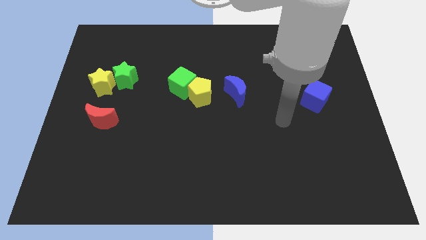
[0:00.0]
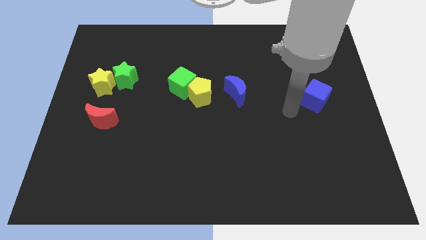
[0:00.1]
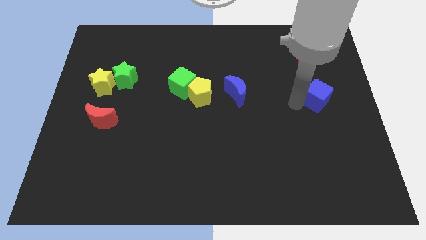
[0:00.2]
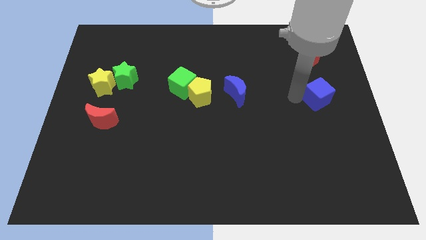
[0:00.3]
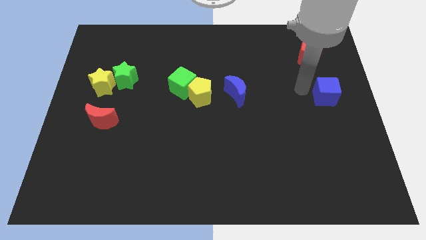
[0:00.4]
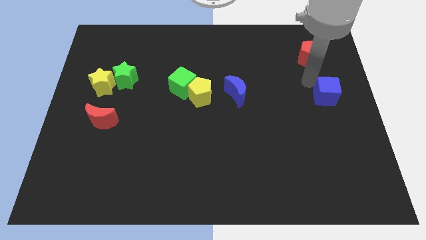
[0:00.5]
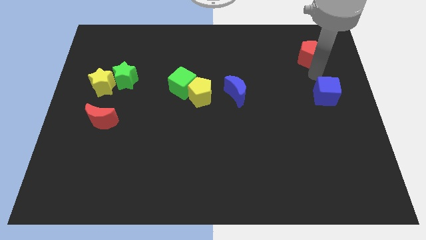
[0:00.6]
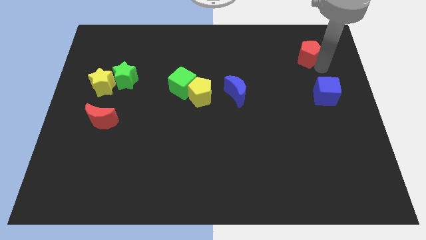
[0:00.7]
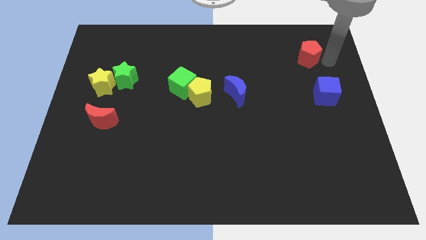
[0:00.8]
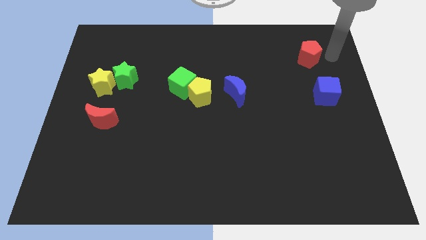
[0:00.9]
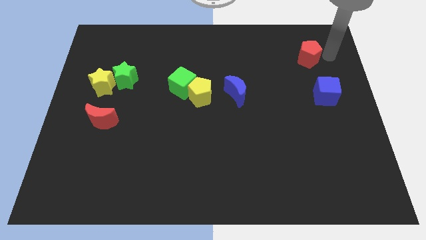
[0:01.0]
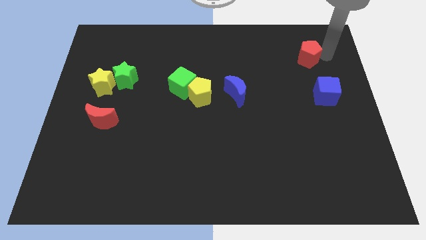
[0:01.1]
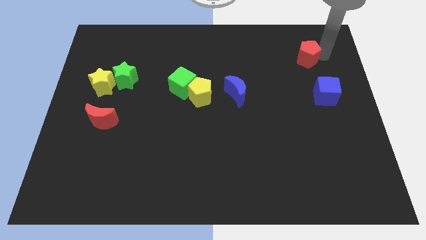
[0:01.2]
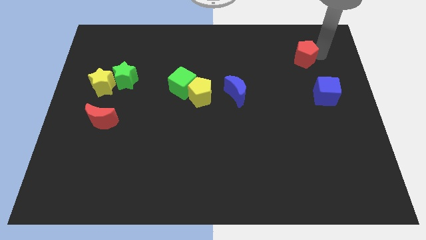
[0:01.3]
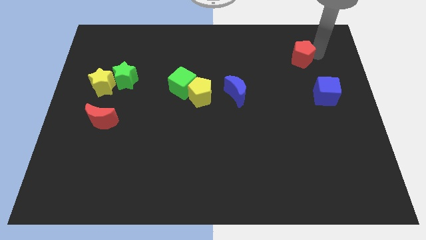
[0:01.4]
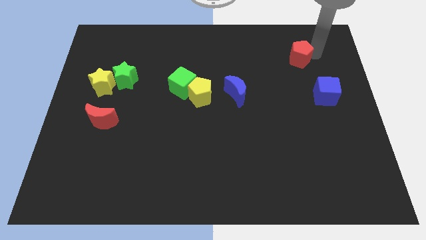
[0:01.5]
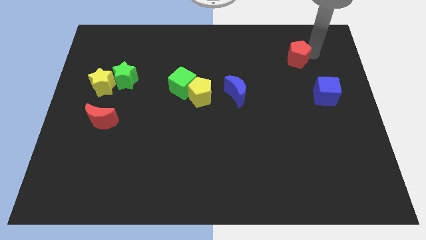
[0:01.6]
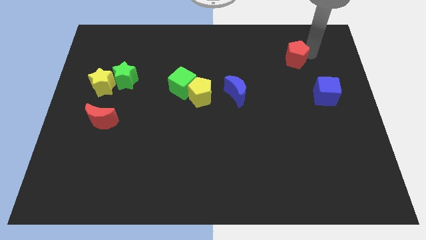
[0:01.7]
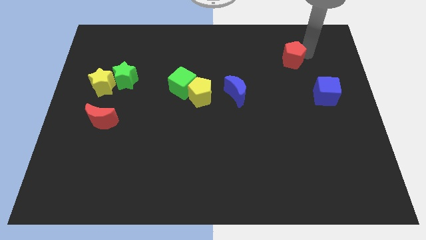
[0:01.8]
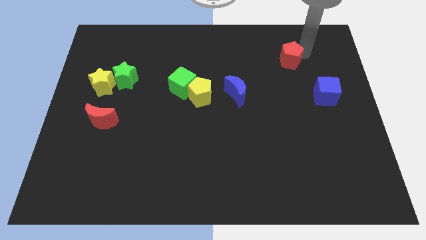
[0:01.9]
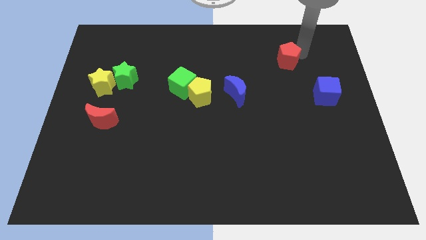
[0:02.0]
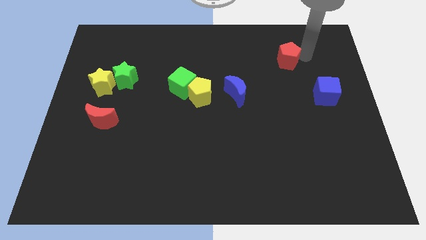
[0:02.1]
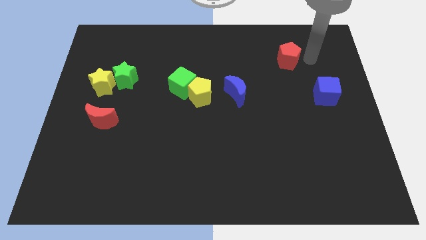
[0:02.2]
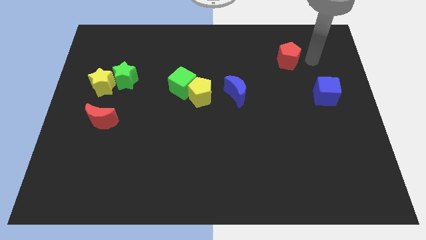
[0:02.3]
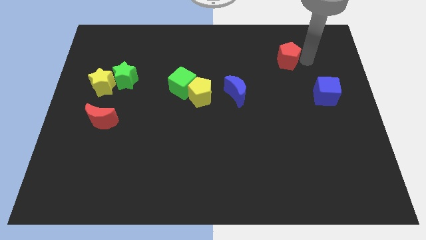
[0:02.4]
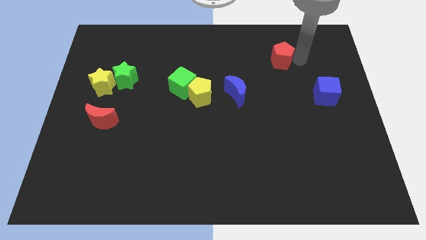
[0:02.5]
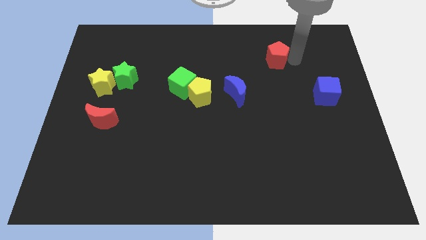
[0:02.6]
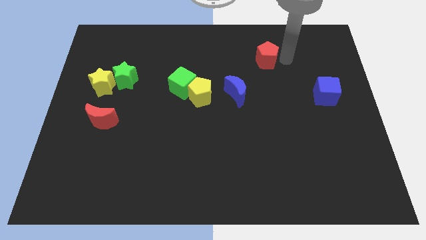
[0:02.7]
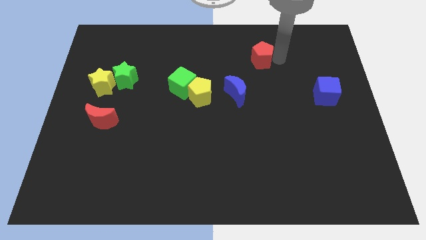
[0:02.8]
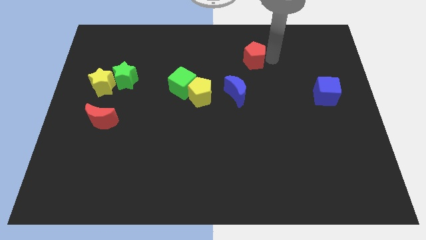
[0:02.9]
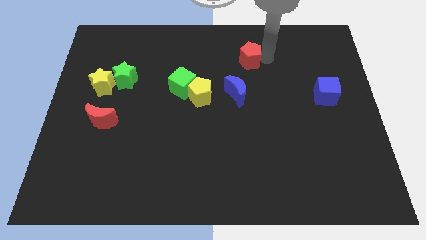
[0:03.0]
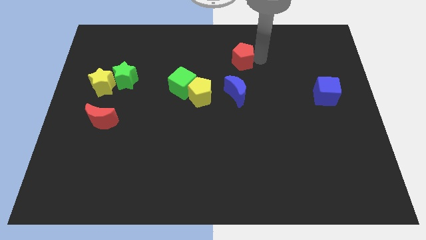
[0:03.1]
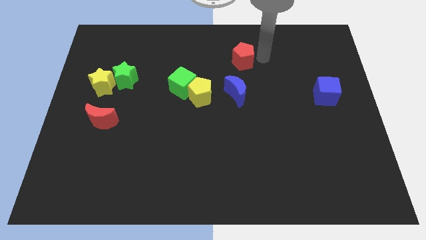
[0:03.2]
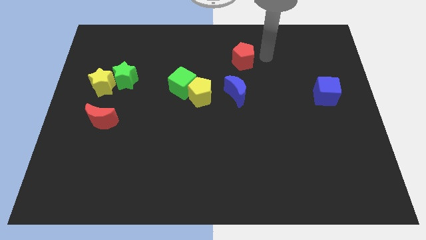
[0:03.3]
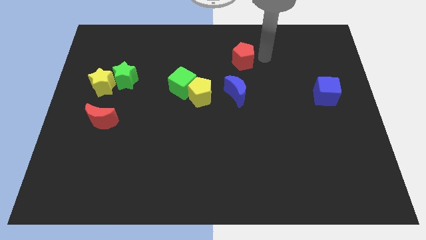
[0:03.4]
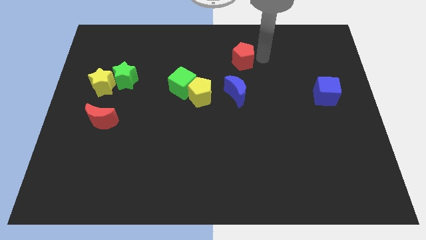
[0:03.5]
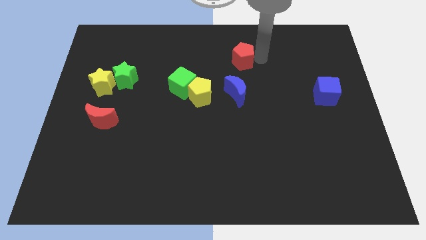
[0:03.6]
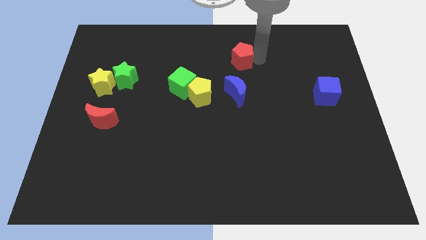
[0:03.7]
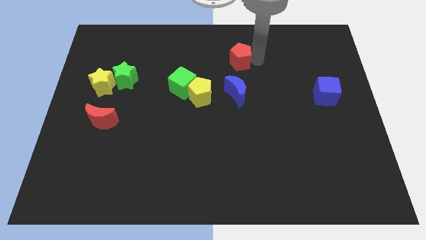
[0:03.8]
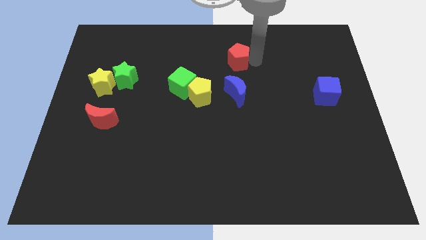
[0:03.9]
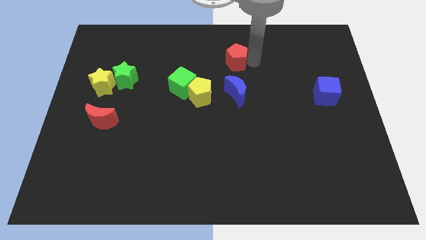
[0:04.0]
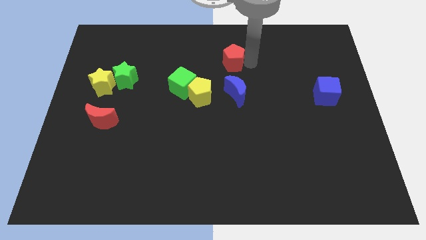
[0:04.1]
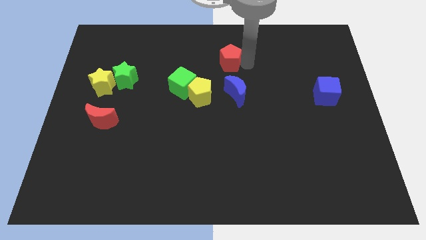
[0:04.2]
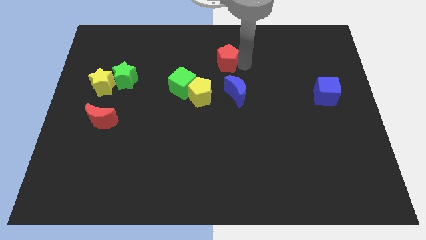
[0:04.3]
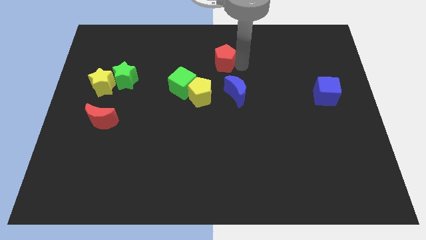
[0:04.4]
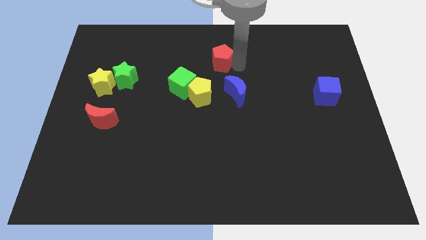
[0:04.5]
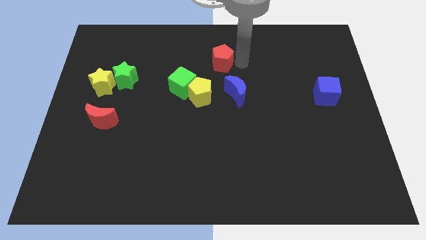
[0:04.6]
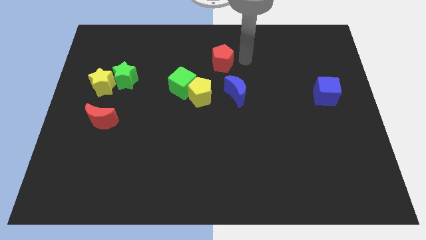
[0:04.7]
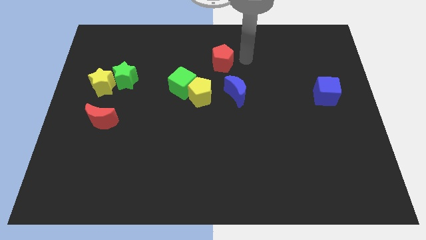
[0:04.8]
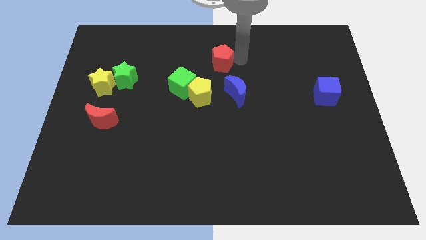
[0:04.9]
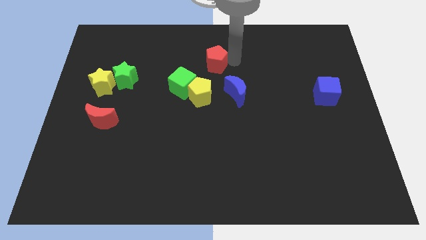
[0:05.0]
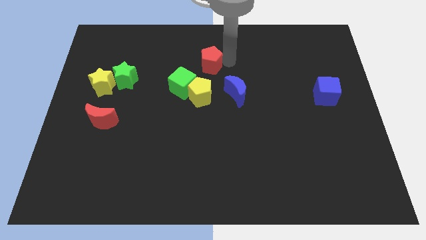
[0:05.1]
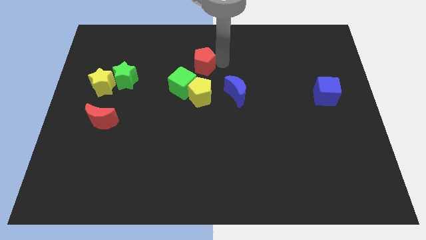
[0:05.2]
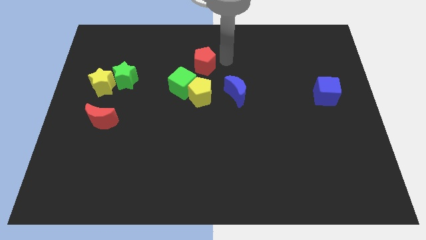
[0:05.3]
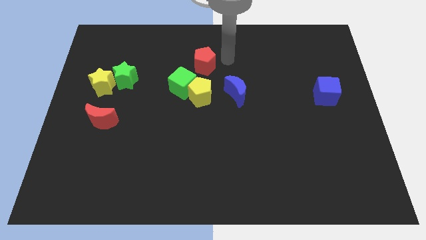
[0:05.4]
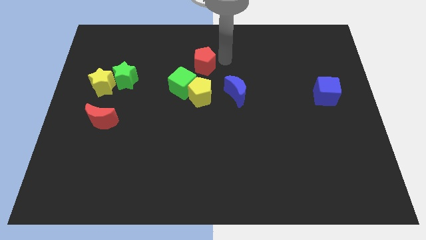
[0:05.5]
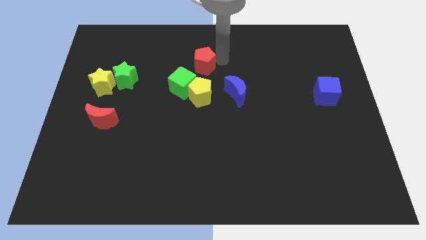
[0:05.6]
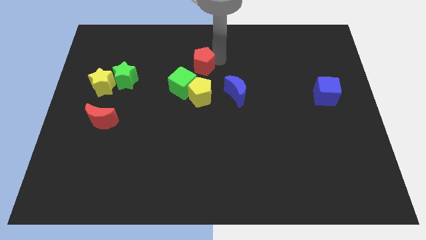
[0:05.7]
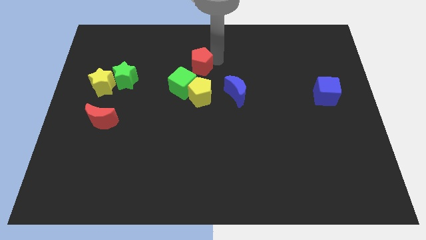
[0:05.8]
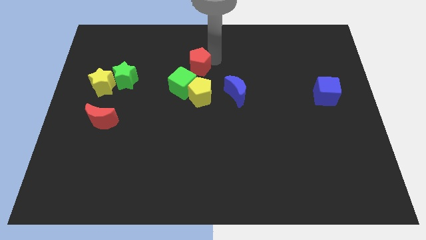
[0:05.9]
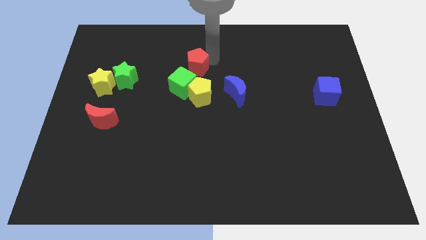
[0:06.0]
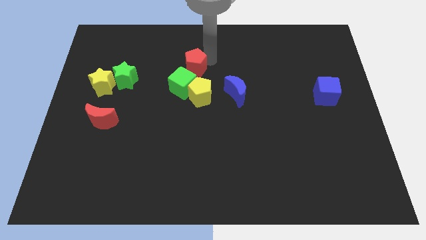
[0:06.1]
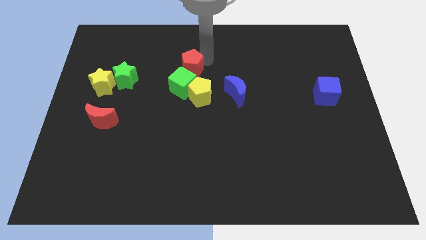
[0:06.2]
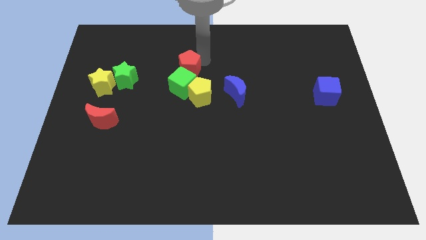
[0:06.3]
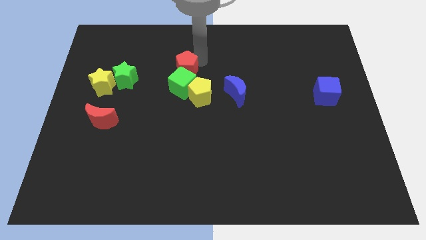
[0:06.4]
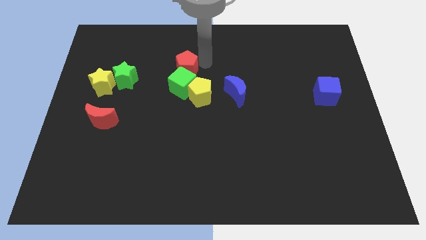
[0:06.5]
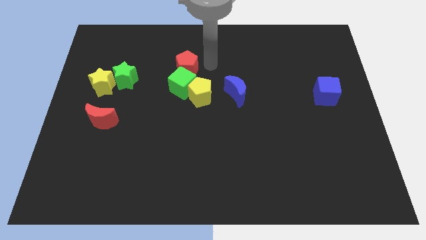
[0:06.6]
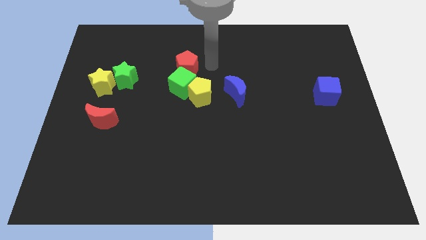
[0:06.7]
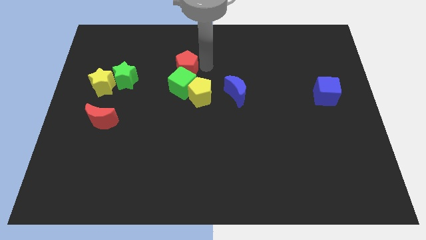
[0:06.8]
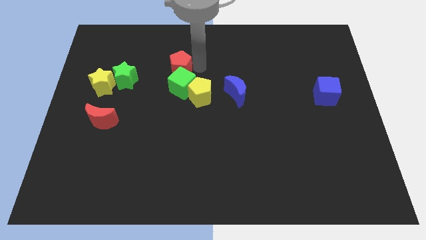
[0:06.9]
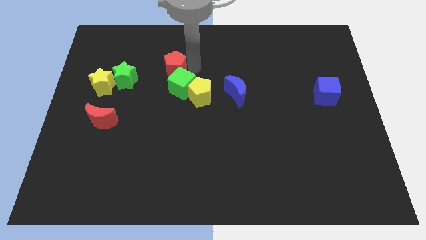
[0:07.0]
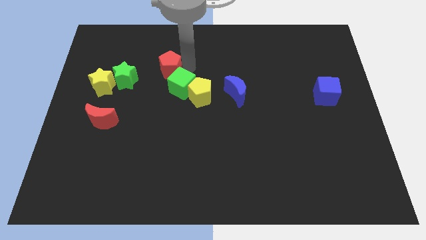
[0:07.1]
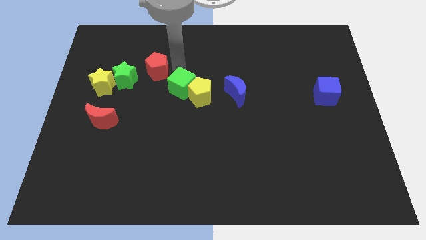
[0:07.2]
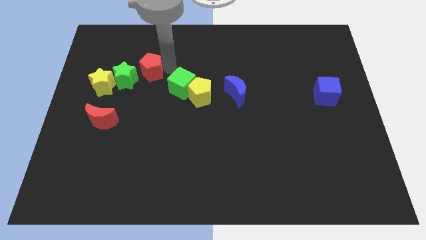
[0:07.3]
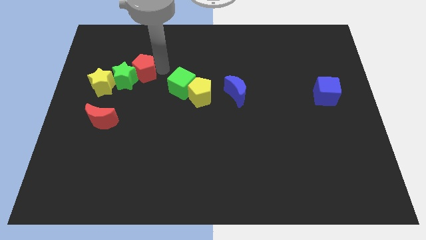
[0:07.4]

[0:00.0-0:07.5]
push the red pentagon to the green star
